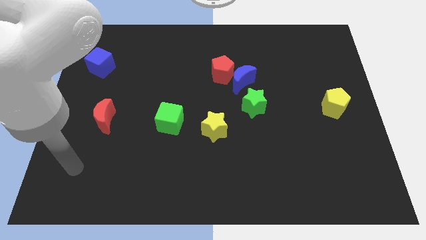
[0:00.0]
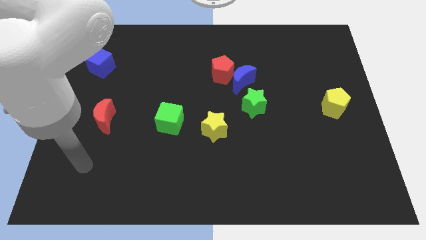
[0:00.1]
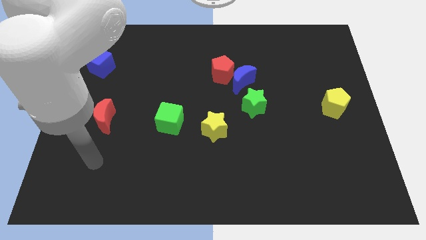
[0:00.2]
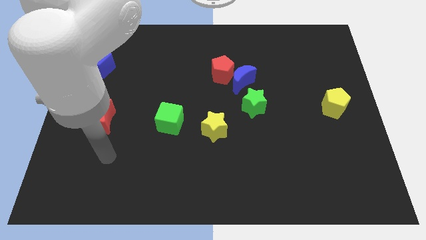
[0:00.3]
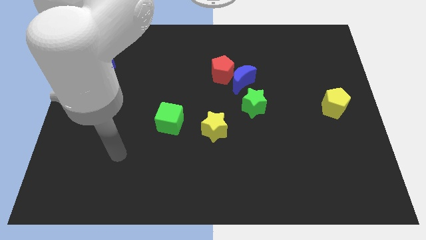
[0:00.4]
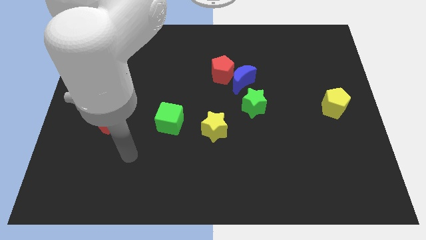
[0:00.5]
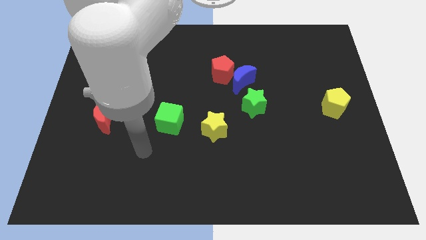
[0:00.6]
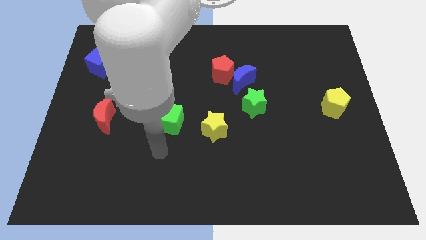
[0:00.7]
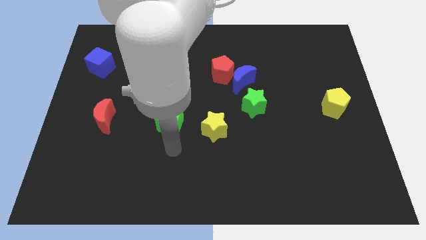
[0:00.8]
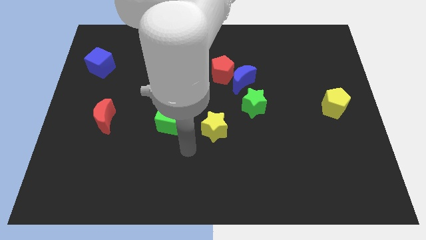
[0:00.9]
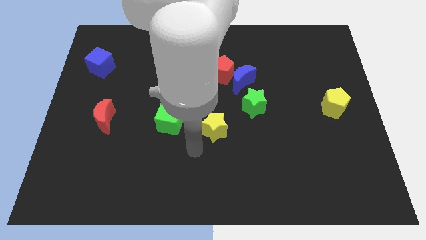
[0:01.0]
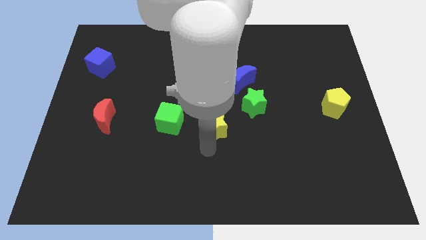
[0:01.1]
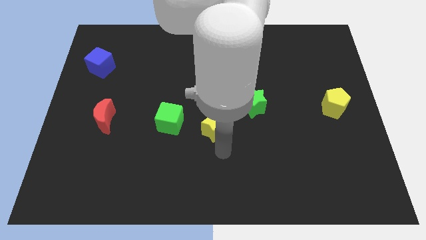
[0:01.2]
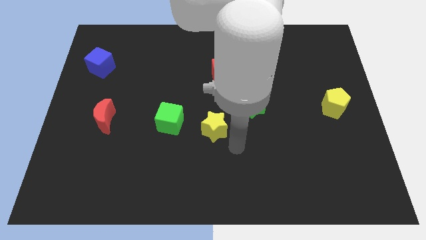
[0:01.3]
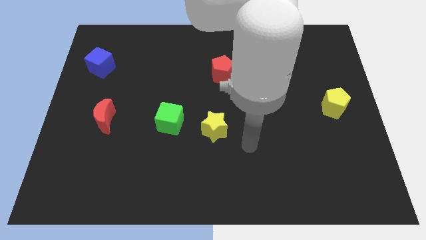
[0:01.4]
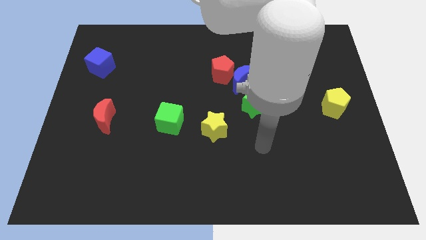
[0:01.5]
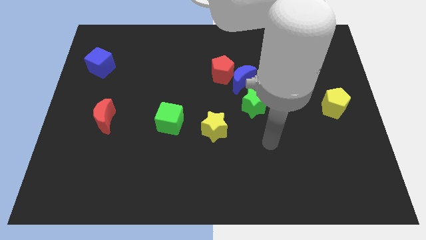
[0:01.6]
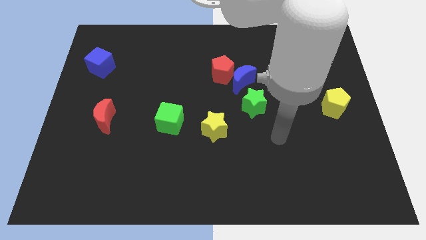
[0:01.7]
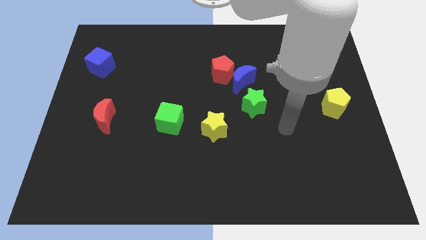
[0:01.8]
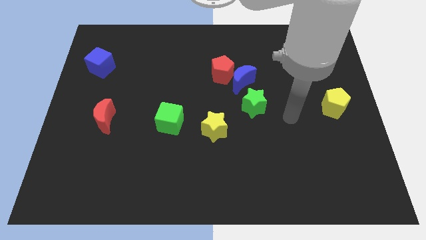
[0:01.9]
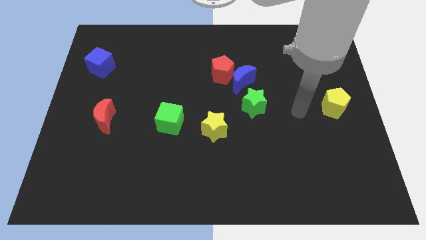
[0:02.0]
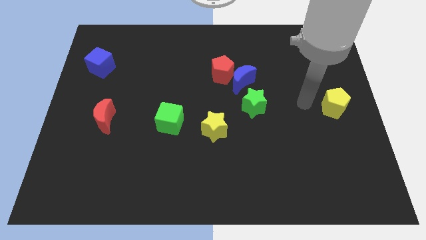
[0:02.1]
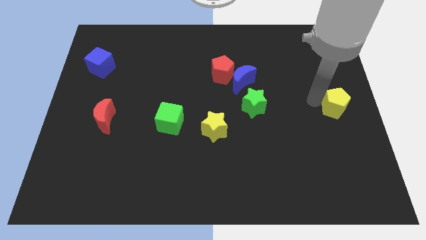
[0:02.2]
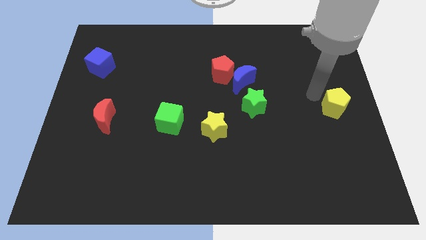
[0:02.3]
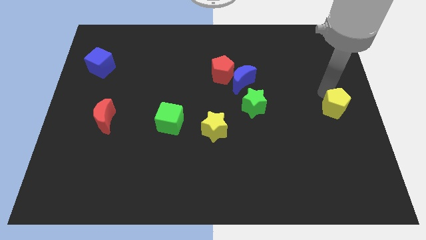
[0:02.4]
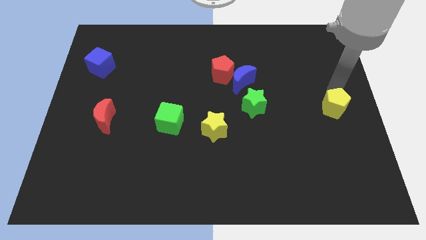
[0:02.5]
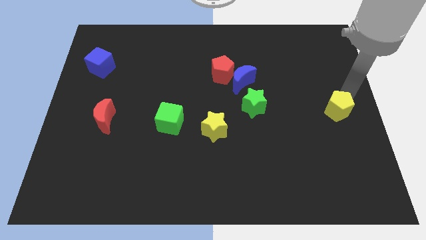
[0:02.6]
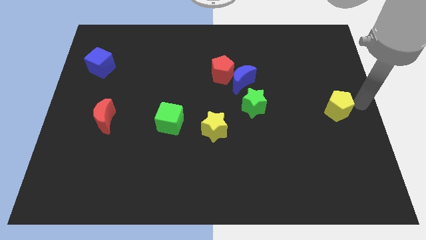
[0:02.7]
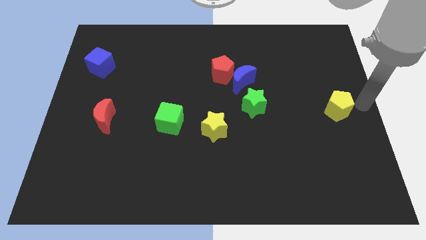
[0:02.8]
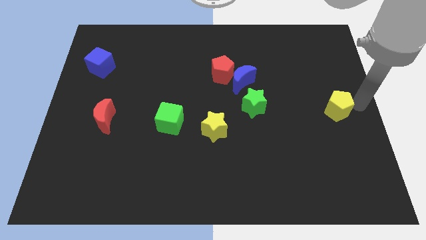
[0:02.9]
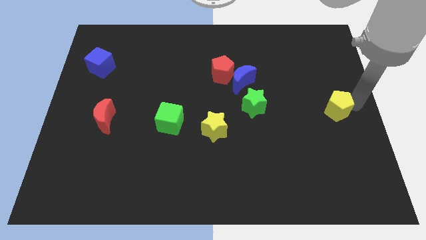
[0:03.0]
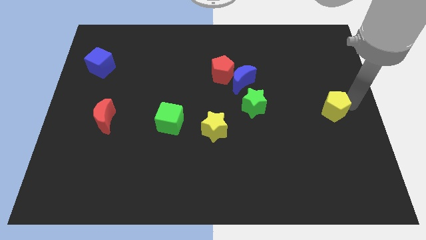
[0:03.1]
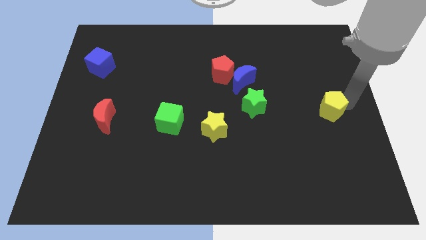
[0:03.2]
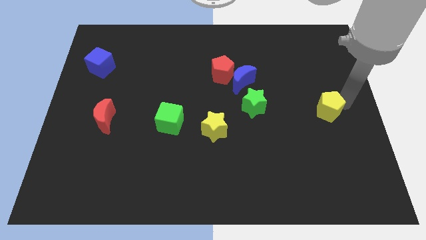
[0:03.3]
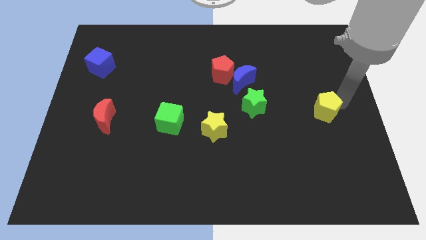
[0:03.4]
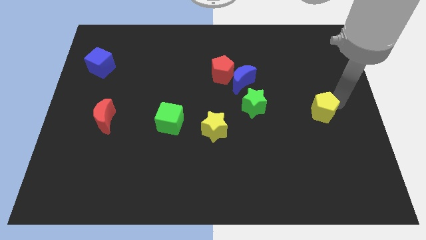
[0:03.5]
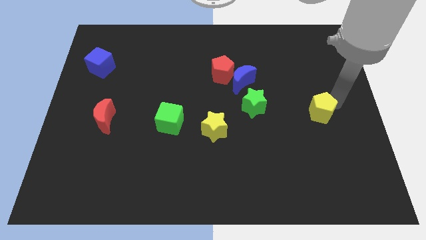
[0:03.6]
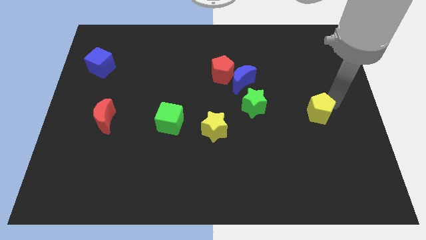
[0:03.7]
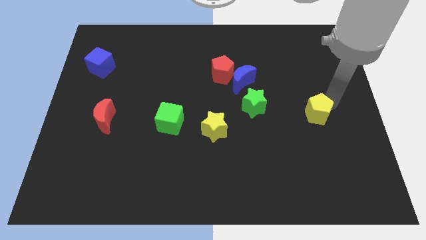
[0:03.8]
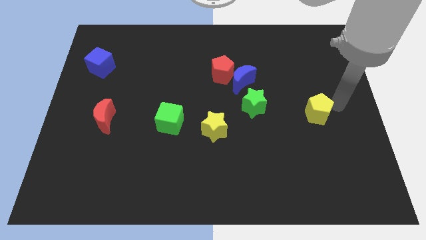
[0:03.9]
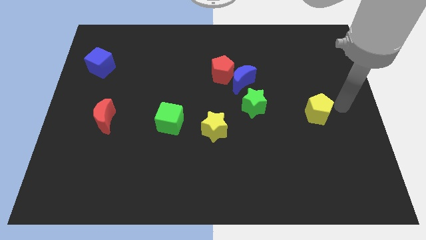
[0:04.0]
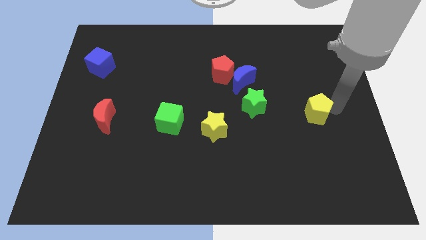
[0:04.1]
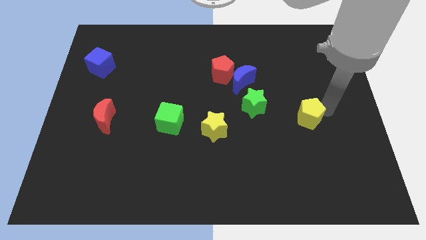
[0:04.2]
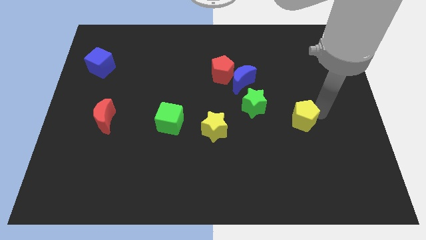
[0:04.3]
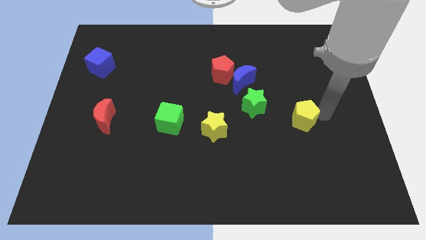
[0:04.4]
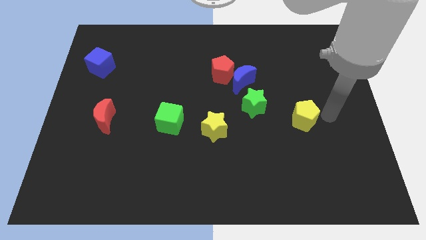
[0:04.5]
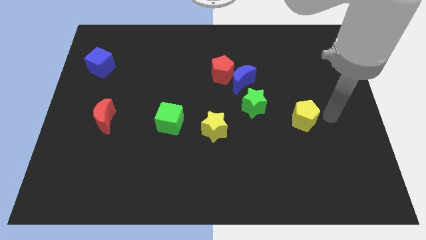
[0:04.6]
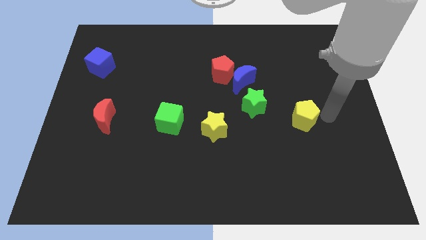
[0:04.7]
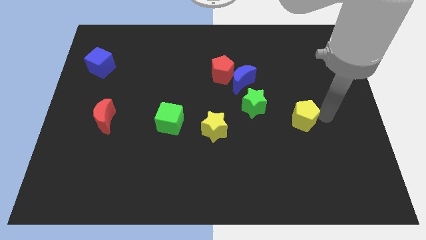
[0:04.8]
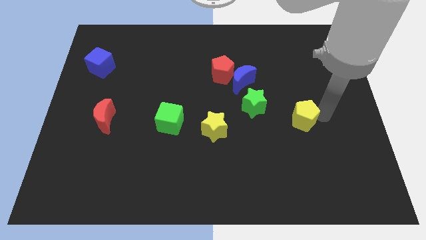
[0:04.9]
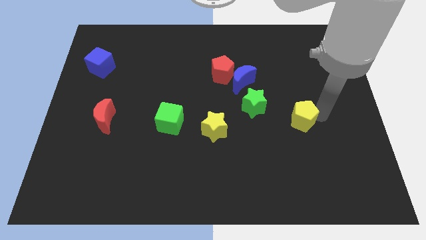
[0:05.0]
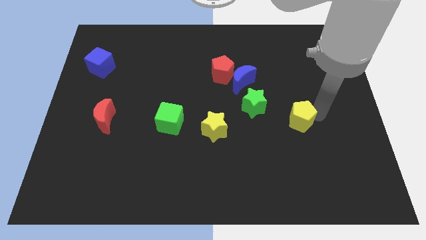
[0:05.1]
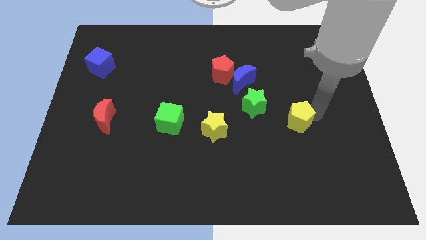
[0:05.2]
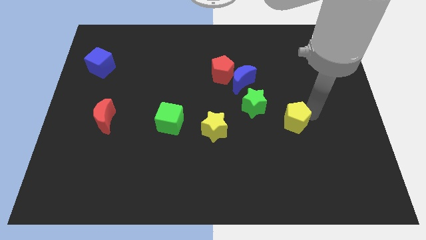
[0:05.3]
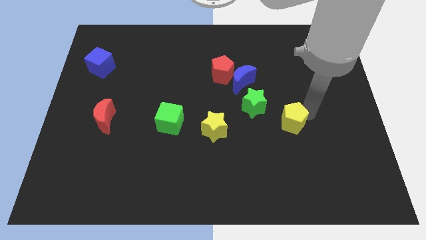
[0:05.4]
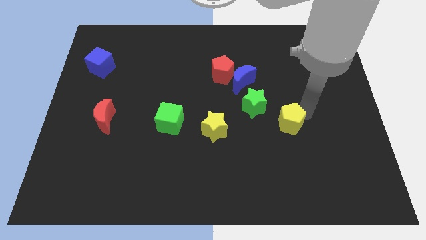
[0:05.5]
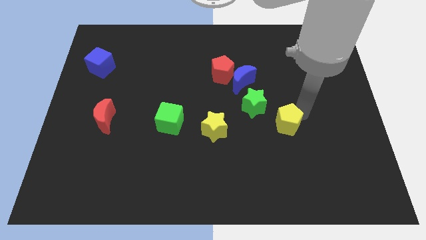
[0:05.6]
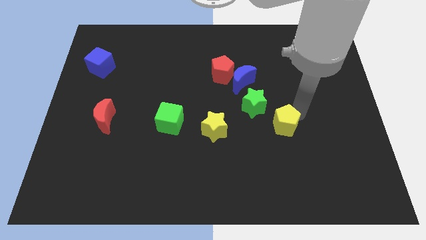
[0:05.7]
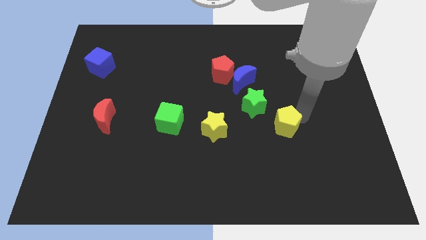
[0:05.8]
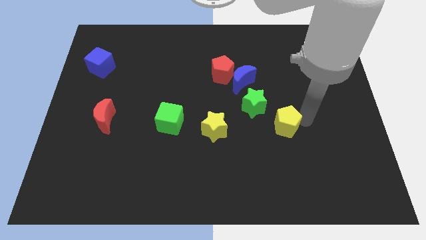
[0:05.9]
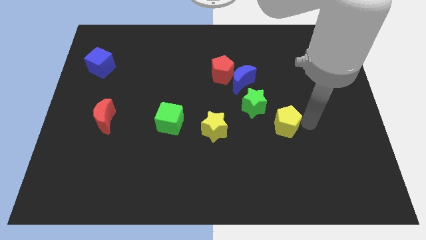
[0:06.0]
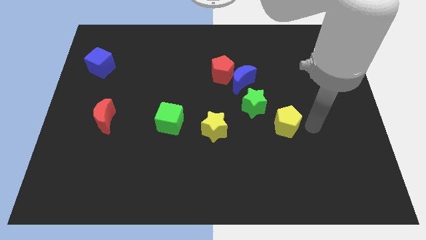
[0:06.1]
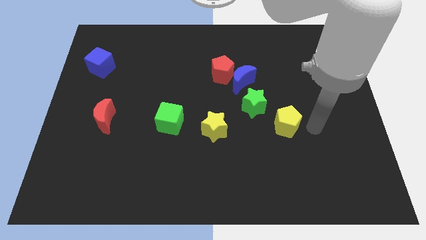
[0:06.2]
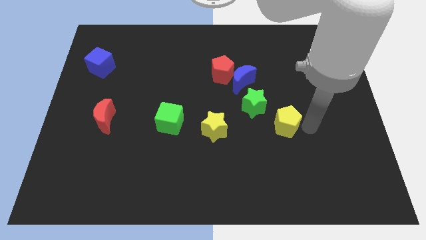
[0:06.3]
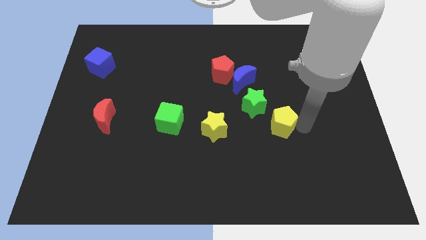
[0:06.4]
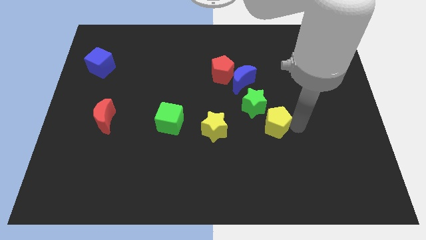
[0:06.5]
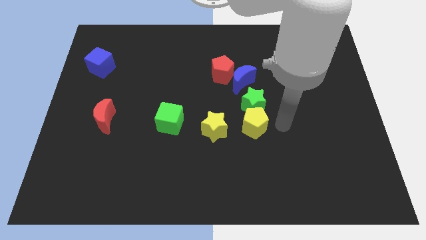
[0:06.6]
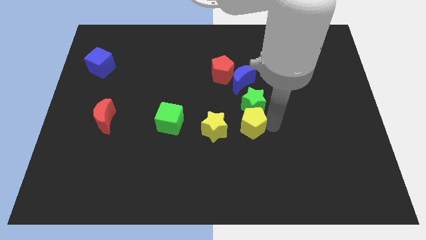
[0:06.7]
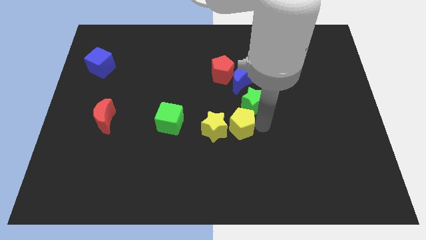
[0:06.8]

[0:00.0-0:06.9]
put the yellow pentagon to the right side of the green cube
